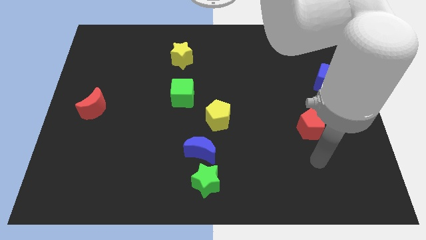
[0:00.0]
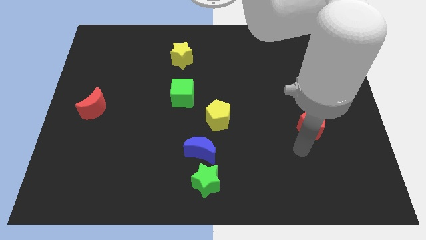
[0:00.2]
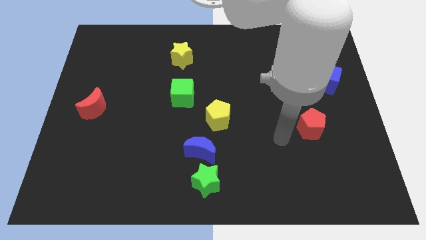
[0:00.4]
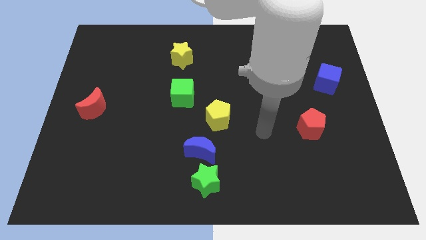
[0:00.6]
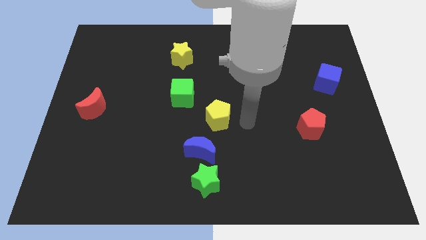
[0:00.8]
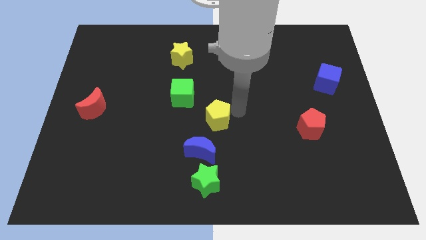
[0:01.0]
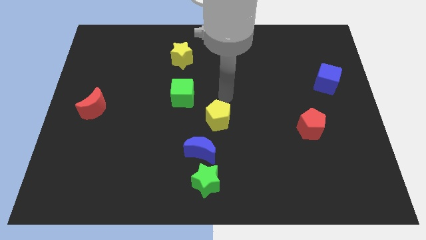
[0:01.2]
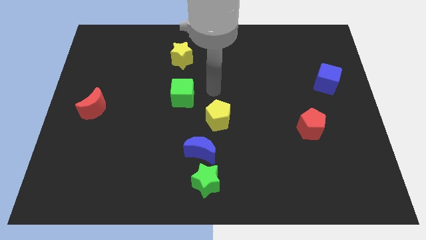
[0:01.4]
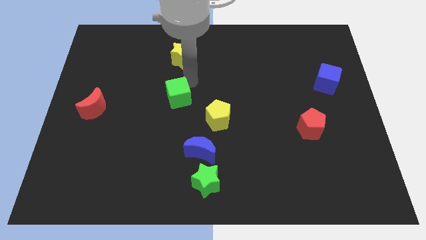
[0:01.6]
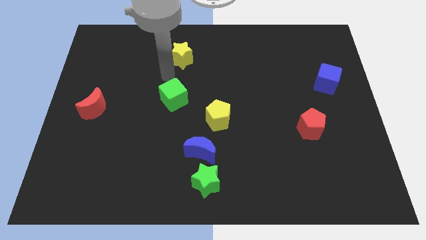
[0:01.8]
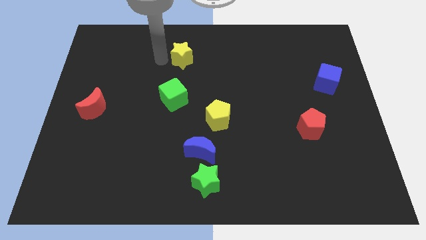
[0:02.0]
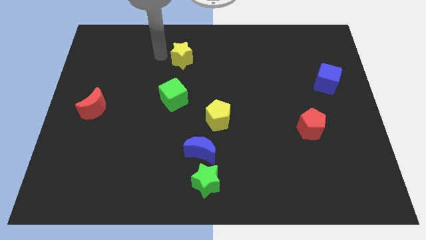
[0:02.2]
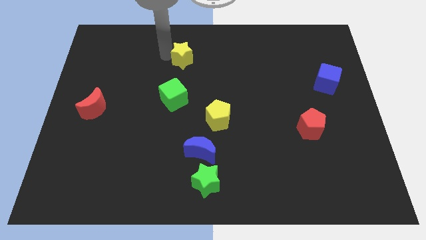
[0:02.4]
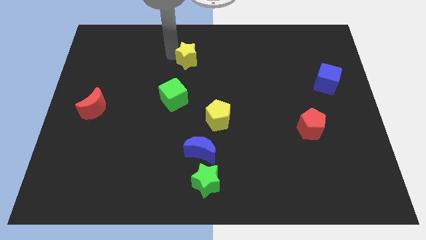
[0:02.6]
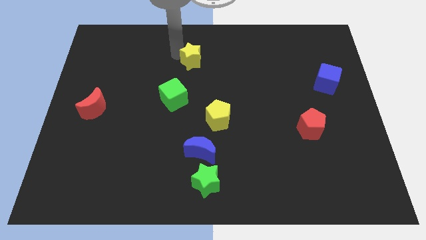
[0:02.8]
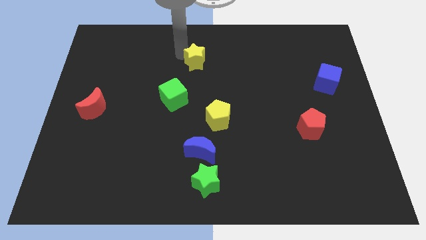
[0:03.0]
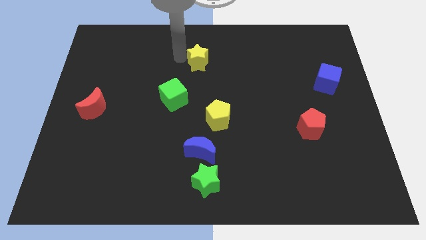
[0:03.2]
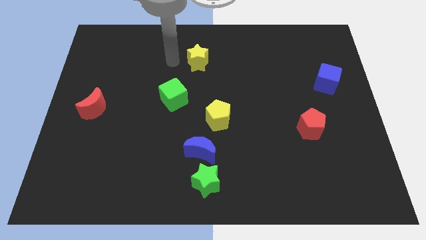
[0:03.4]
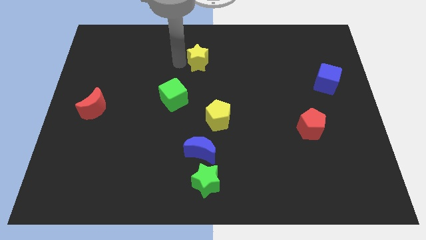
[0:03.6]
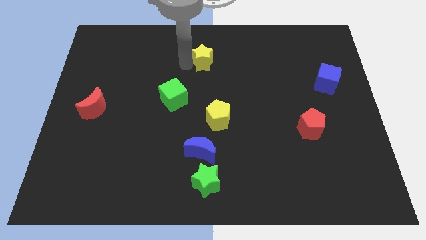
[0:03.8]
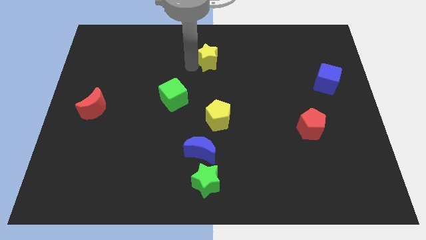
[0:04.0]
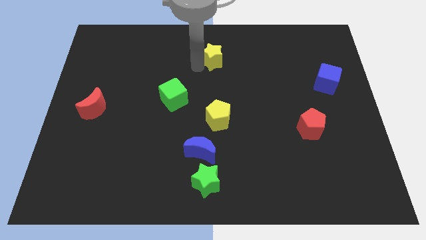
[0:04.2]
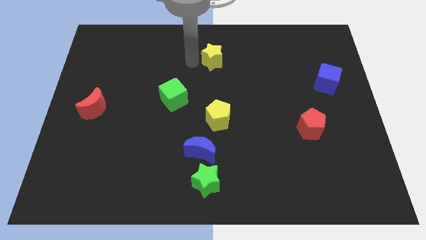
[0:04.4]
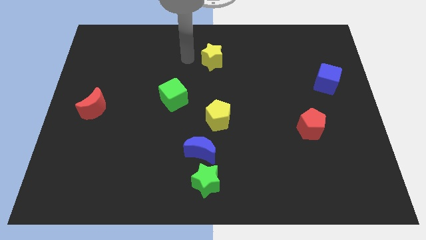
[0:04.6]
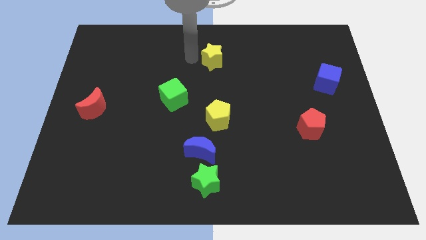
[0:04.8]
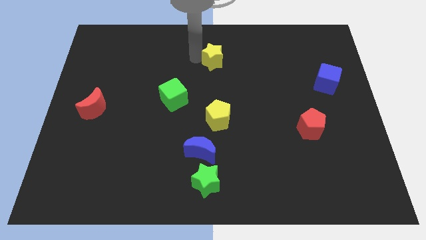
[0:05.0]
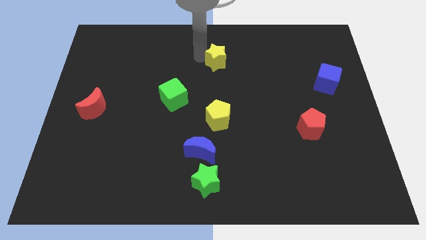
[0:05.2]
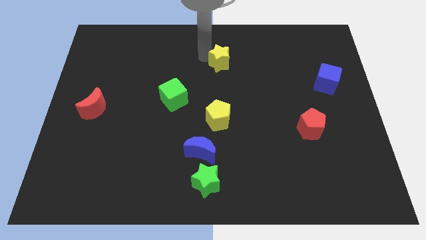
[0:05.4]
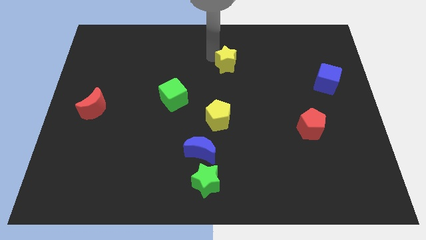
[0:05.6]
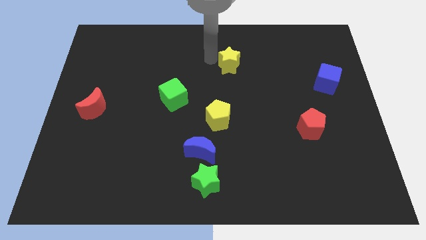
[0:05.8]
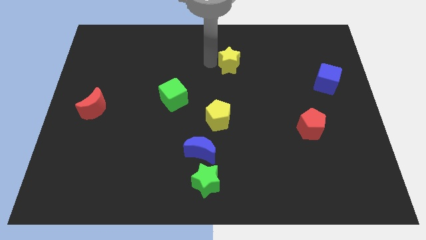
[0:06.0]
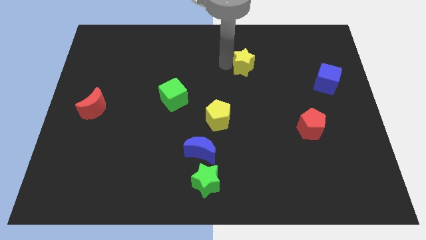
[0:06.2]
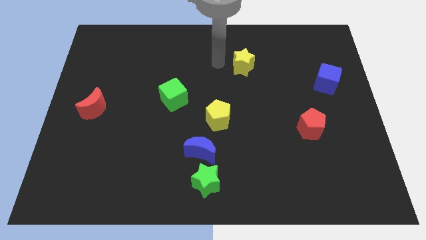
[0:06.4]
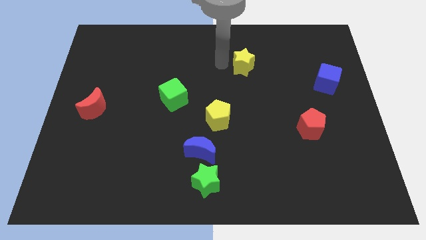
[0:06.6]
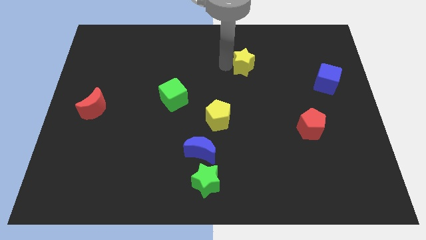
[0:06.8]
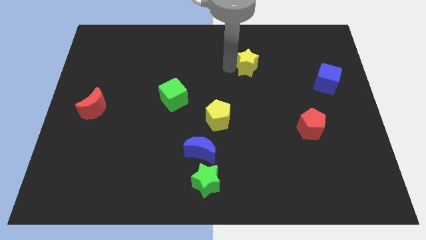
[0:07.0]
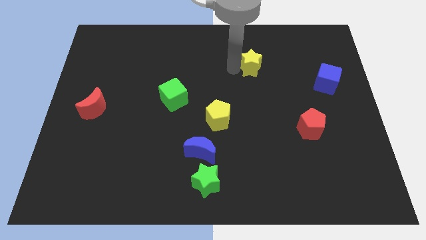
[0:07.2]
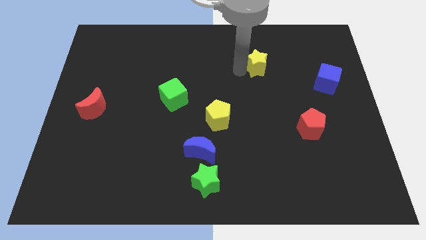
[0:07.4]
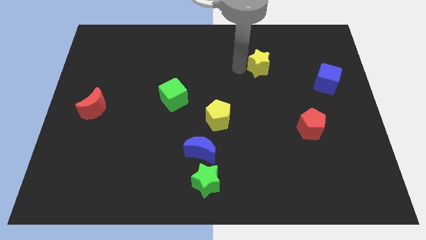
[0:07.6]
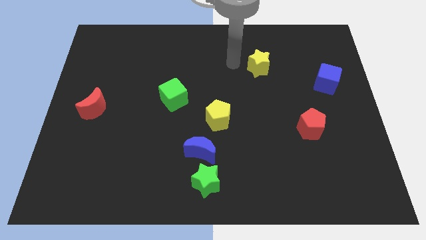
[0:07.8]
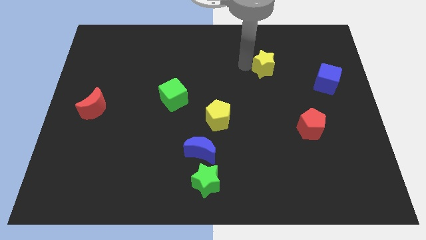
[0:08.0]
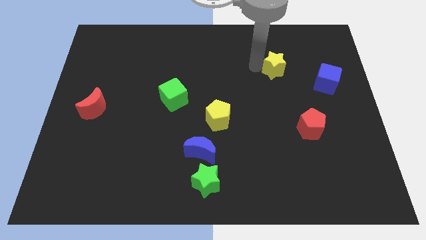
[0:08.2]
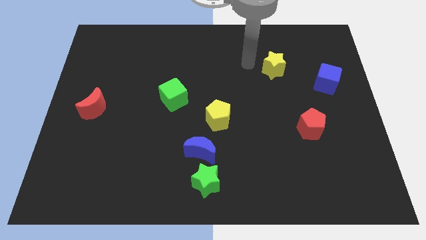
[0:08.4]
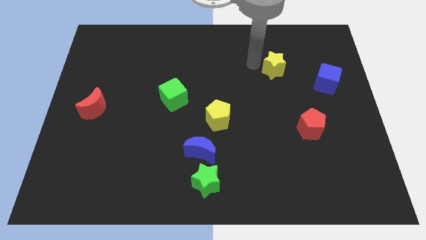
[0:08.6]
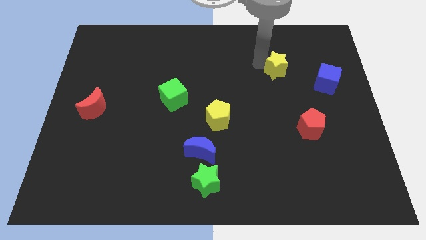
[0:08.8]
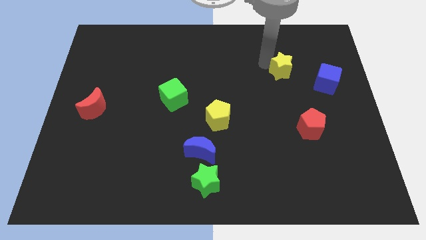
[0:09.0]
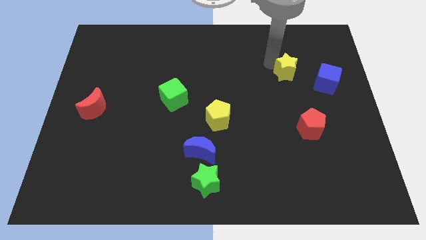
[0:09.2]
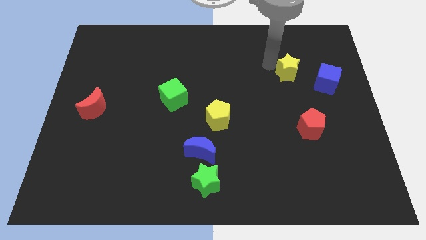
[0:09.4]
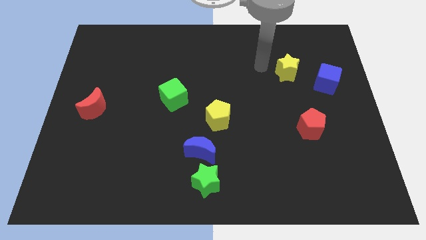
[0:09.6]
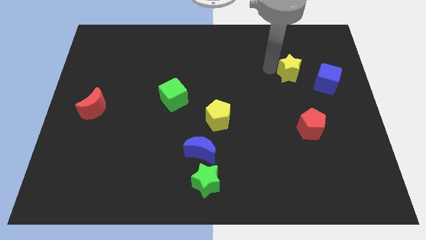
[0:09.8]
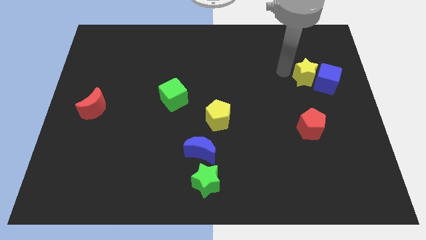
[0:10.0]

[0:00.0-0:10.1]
slide the yellow star next to the blue cube

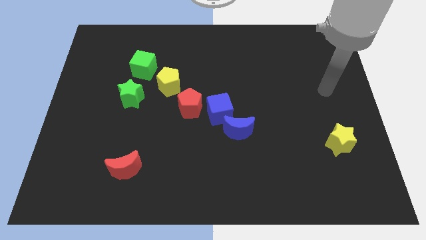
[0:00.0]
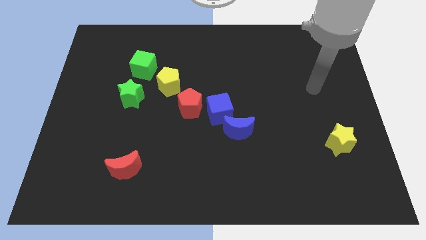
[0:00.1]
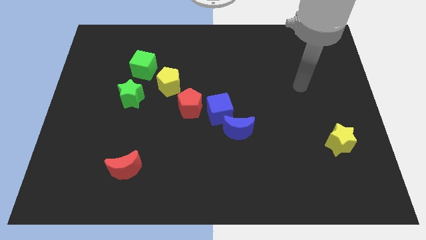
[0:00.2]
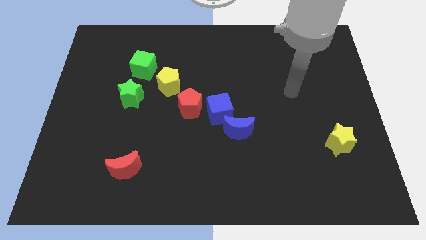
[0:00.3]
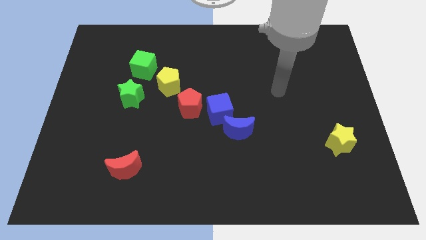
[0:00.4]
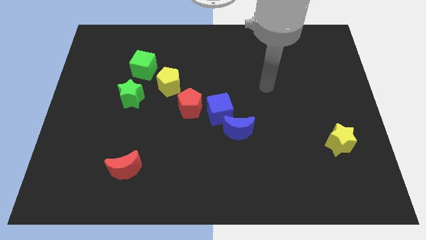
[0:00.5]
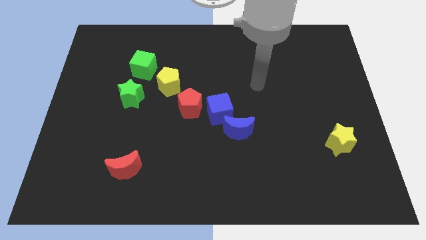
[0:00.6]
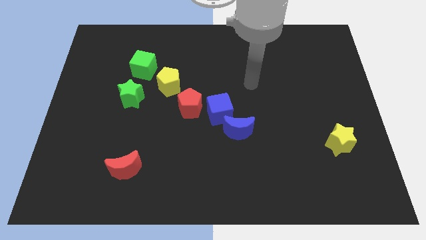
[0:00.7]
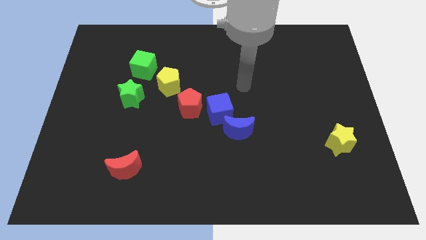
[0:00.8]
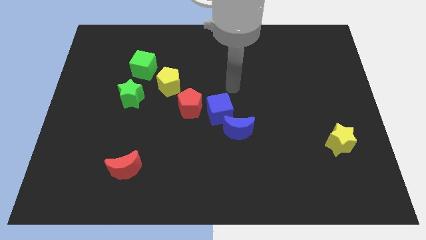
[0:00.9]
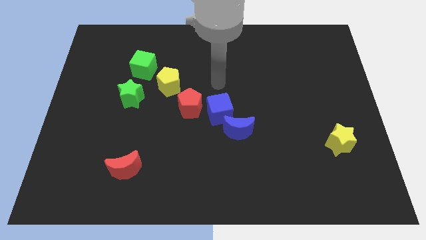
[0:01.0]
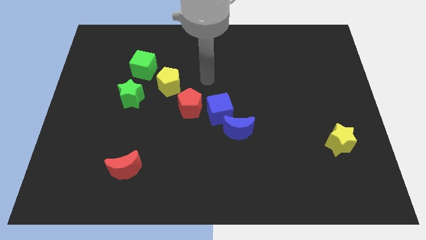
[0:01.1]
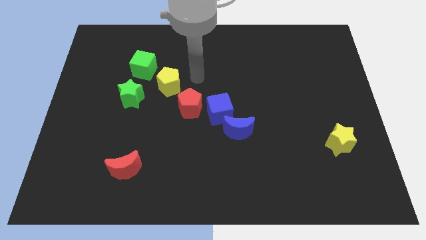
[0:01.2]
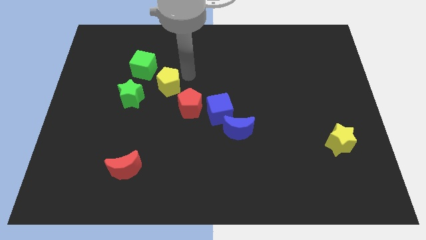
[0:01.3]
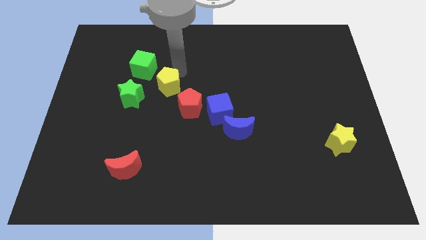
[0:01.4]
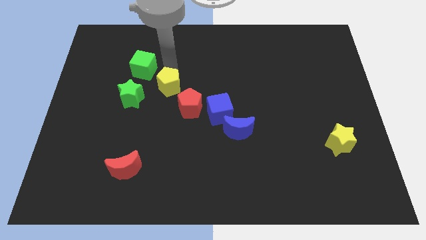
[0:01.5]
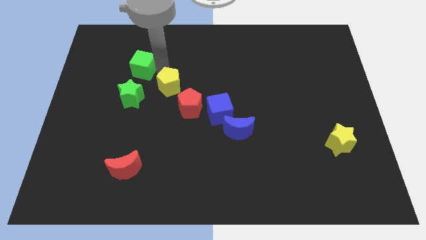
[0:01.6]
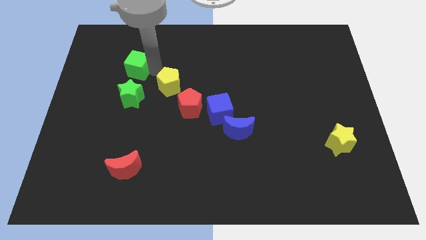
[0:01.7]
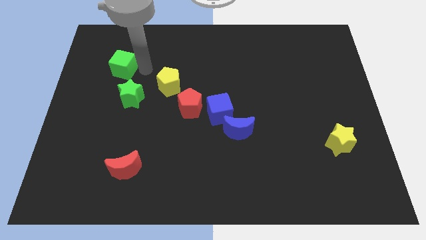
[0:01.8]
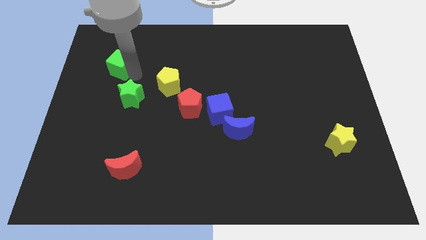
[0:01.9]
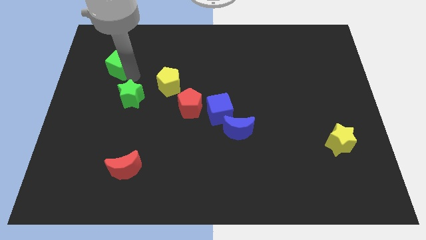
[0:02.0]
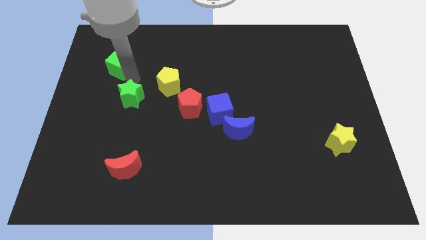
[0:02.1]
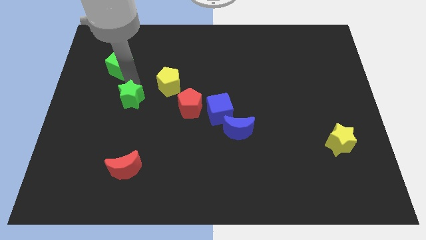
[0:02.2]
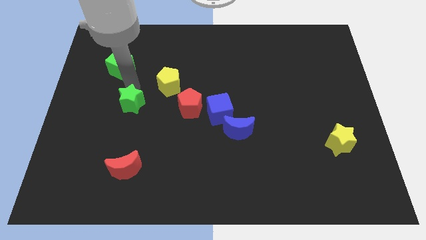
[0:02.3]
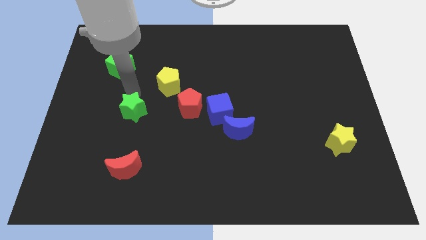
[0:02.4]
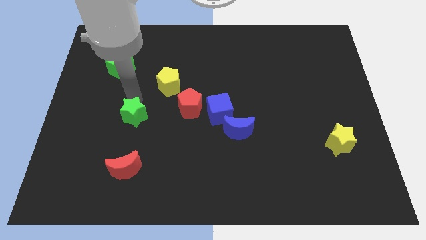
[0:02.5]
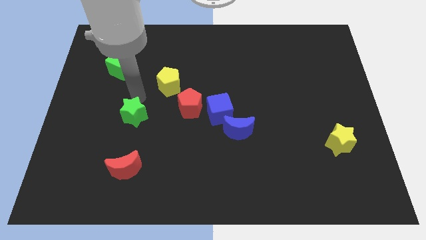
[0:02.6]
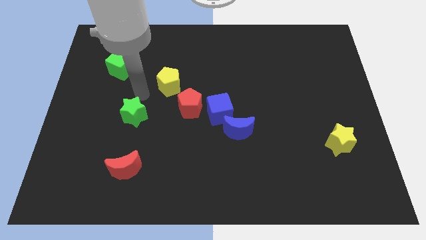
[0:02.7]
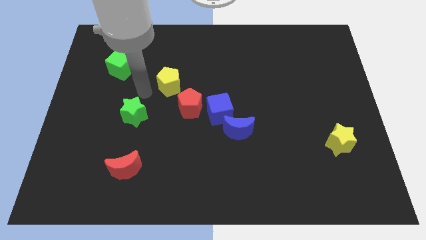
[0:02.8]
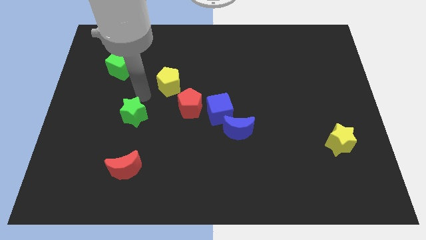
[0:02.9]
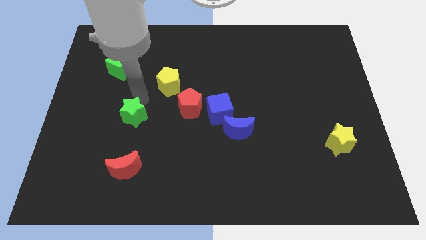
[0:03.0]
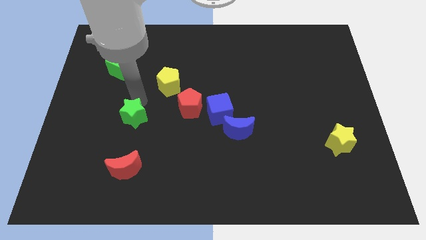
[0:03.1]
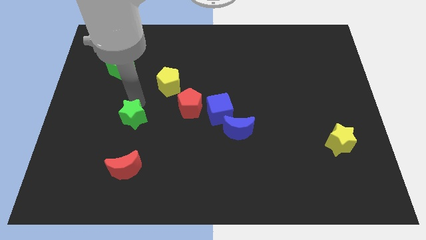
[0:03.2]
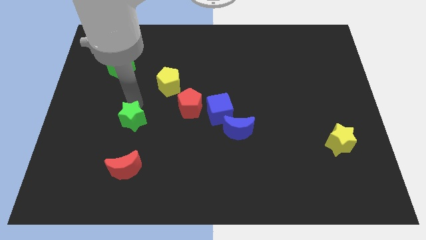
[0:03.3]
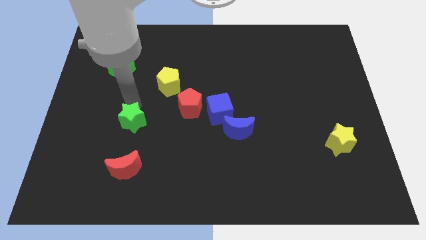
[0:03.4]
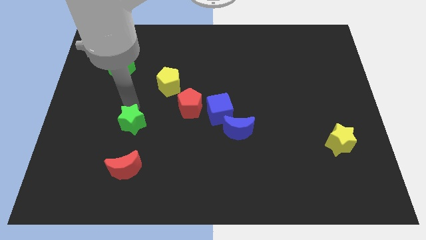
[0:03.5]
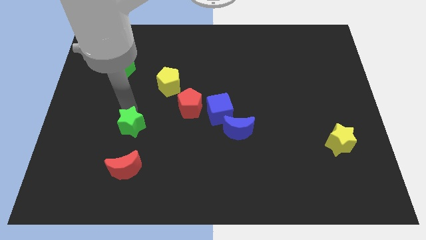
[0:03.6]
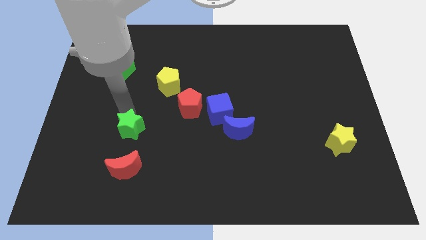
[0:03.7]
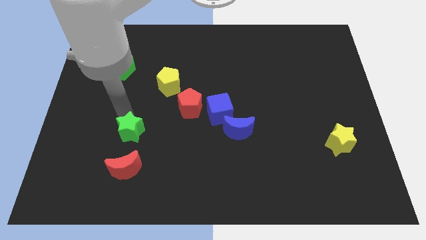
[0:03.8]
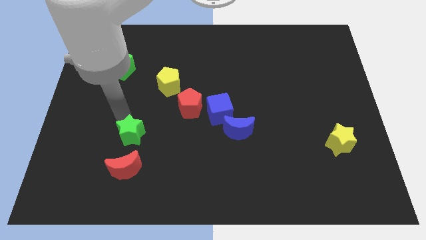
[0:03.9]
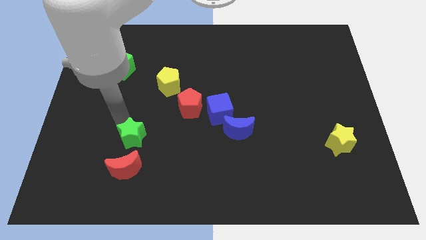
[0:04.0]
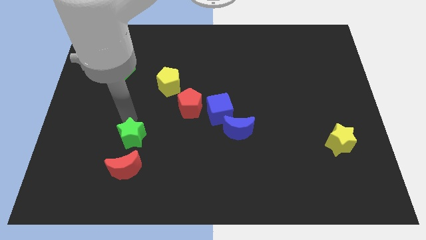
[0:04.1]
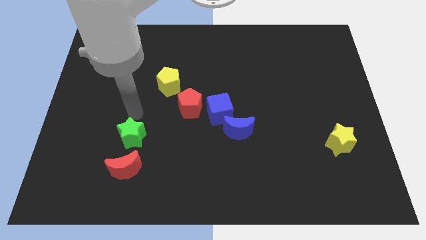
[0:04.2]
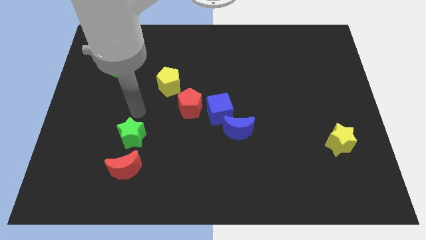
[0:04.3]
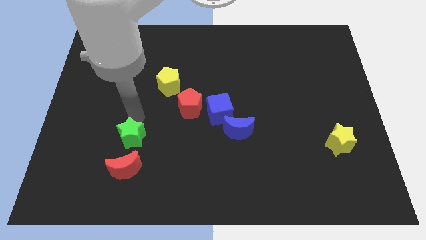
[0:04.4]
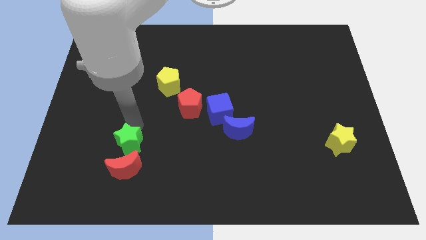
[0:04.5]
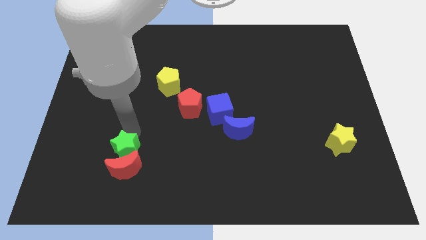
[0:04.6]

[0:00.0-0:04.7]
slide the green star to the red moon
